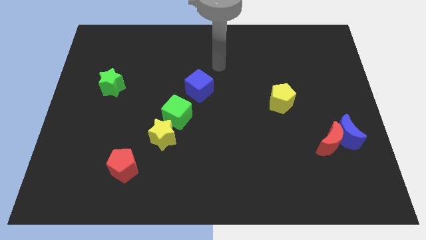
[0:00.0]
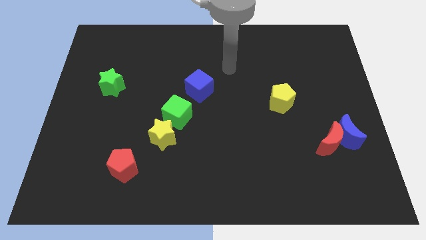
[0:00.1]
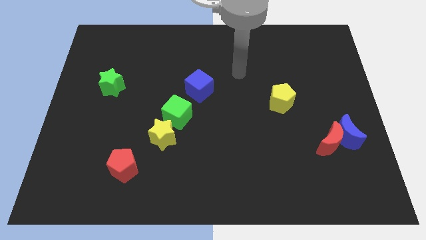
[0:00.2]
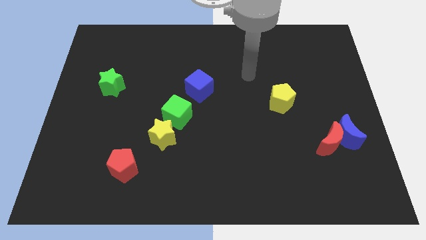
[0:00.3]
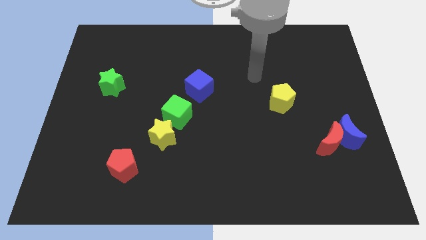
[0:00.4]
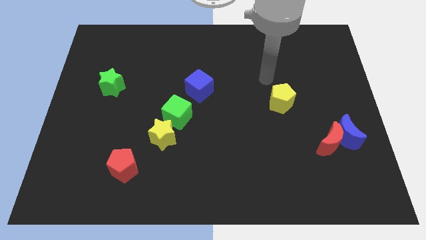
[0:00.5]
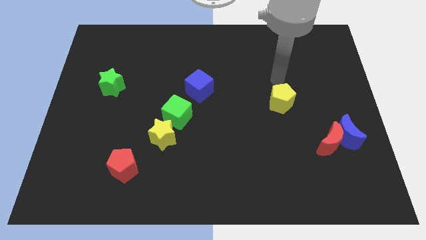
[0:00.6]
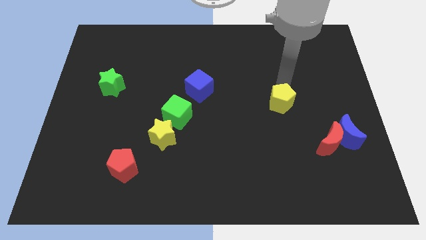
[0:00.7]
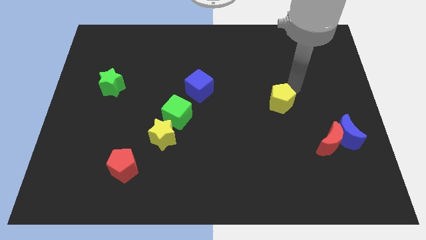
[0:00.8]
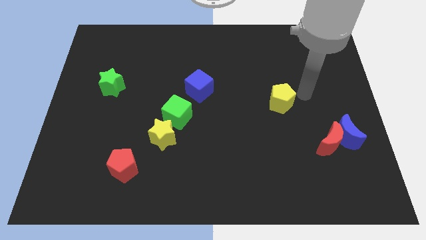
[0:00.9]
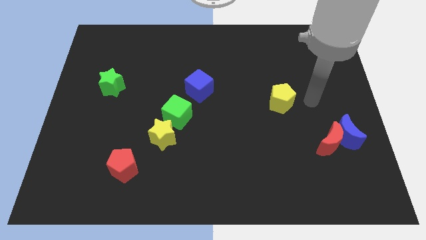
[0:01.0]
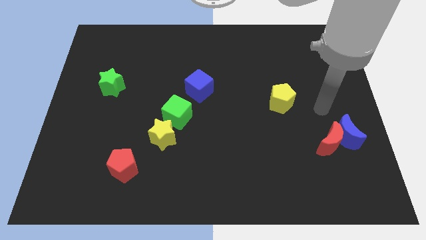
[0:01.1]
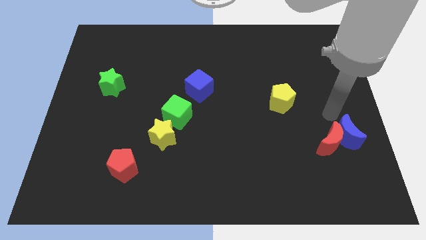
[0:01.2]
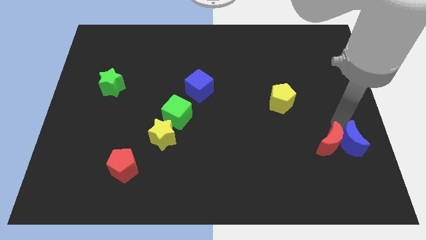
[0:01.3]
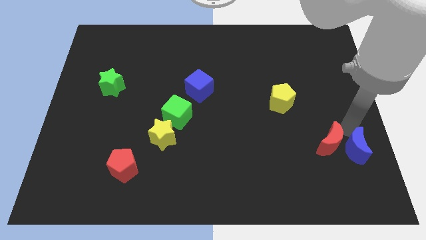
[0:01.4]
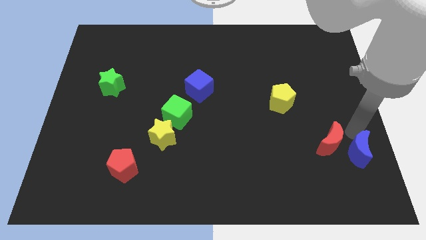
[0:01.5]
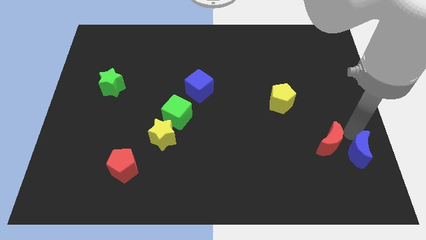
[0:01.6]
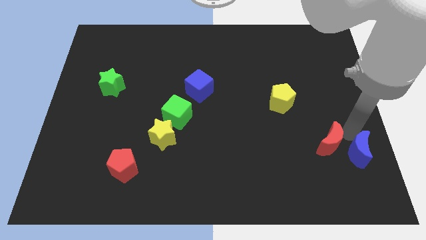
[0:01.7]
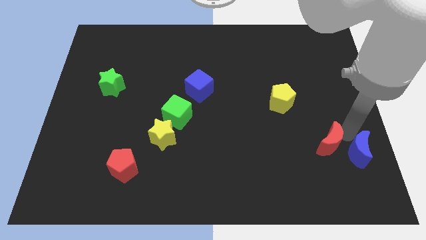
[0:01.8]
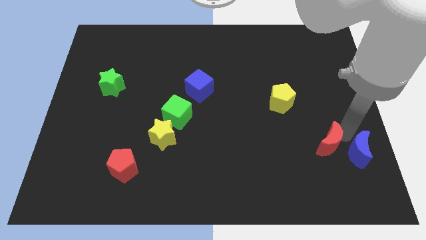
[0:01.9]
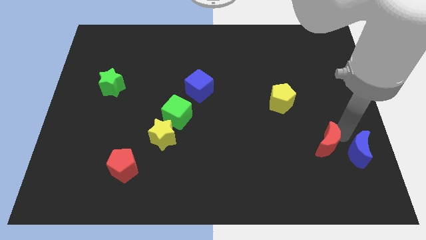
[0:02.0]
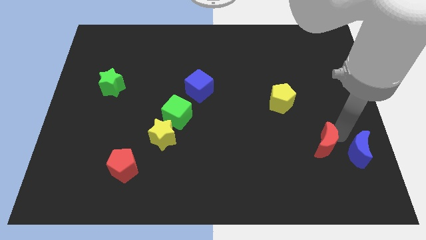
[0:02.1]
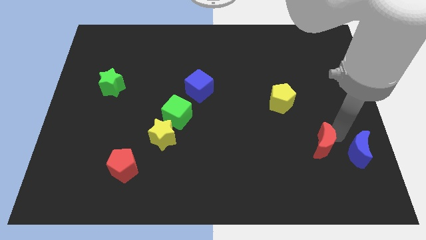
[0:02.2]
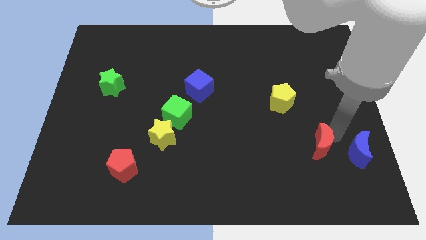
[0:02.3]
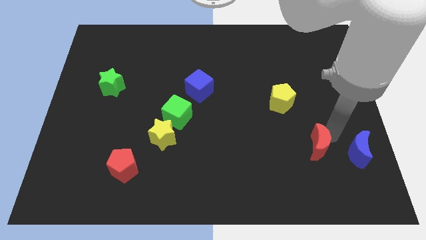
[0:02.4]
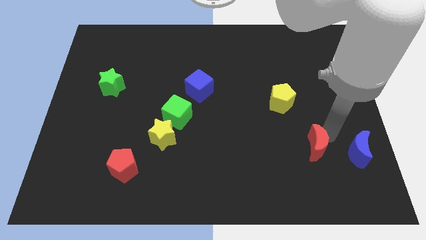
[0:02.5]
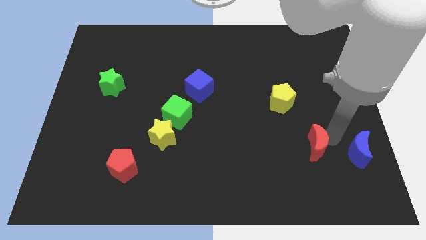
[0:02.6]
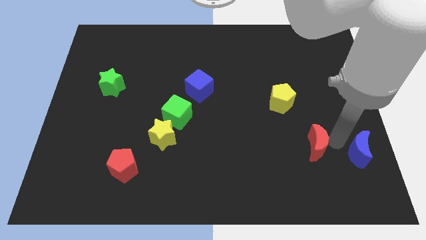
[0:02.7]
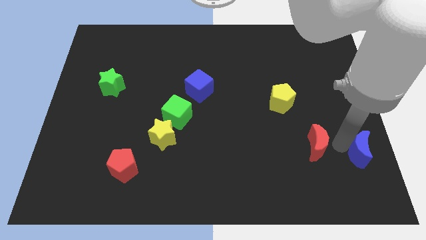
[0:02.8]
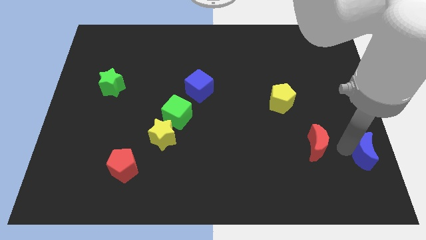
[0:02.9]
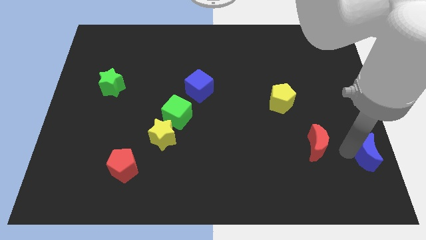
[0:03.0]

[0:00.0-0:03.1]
separate the red moon from the blue moon

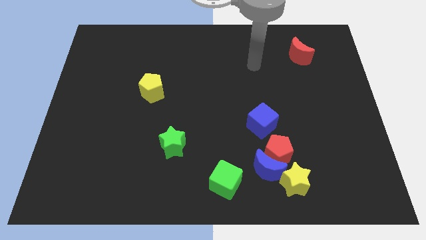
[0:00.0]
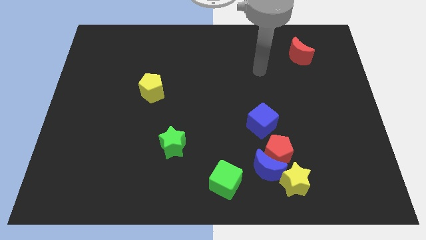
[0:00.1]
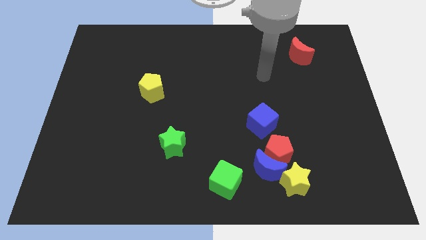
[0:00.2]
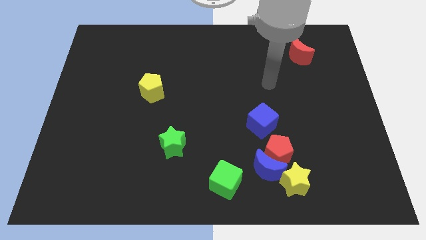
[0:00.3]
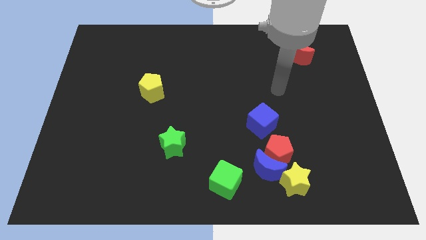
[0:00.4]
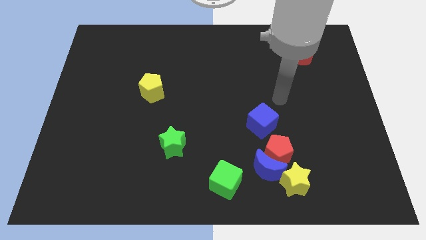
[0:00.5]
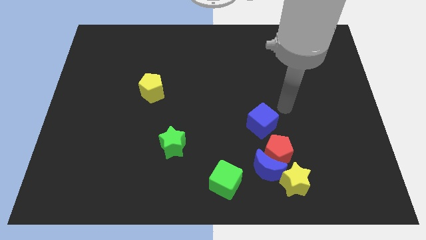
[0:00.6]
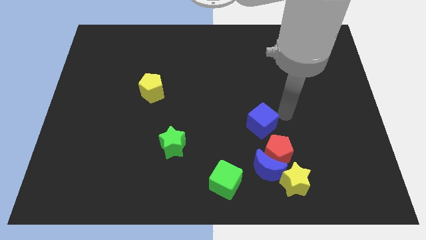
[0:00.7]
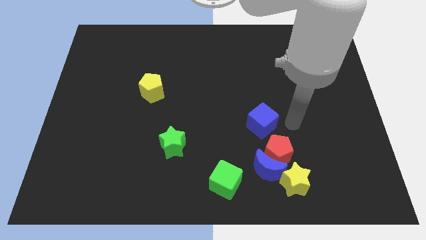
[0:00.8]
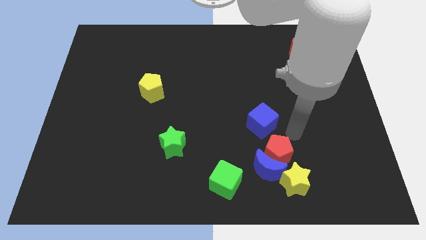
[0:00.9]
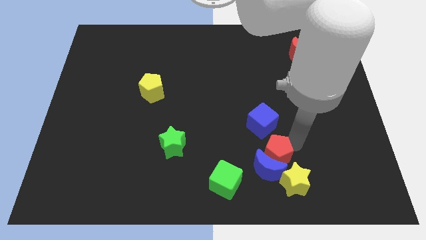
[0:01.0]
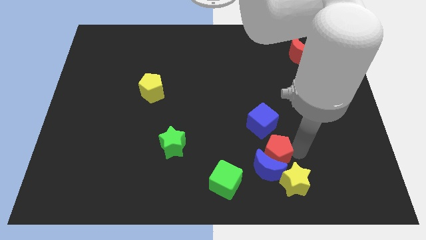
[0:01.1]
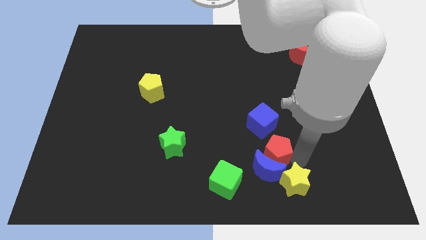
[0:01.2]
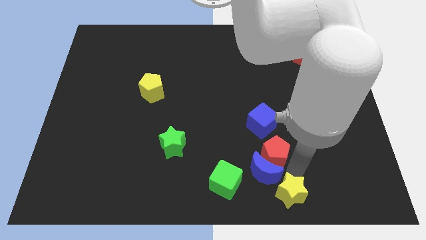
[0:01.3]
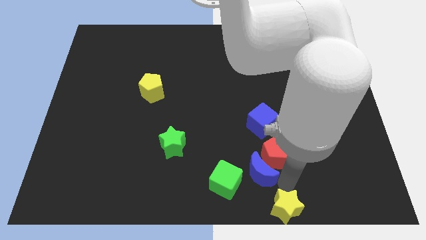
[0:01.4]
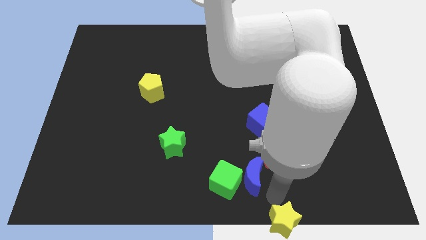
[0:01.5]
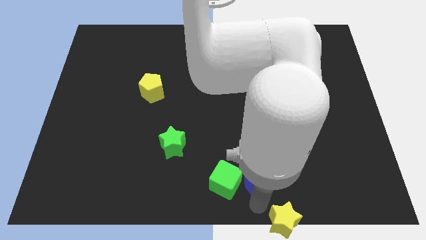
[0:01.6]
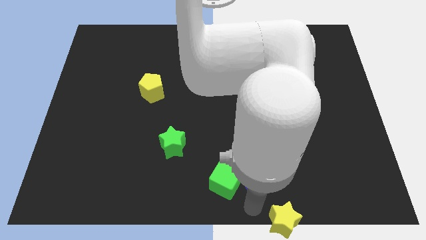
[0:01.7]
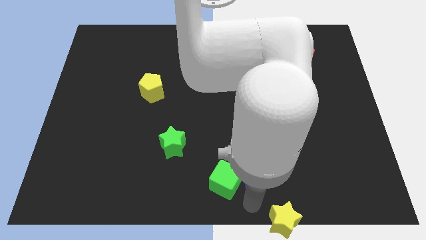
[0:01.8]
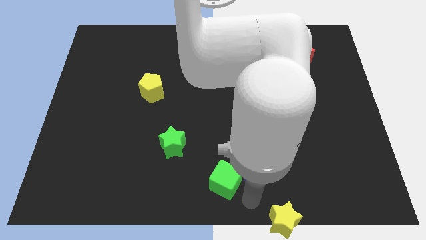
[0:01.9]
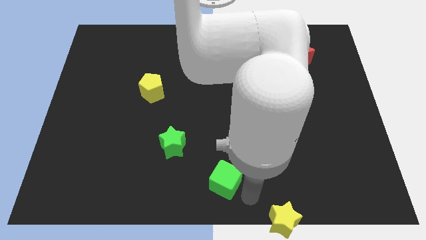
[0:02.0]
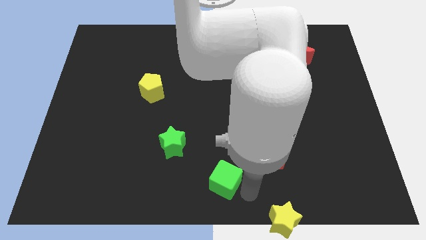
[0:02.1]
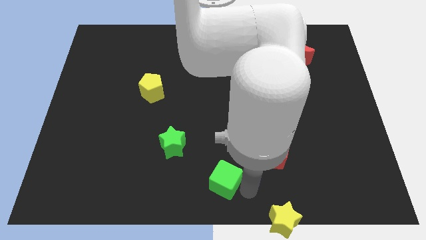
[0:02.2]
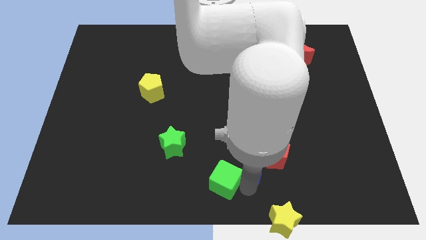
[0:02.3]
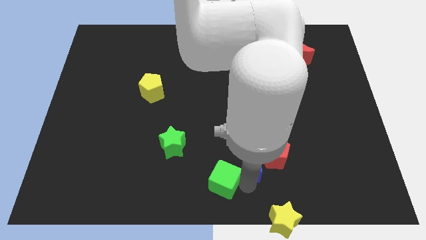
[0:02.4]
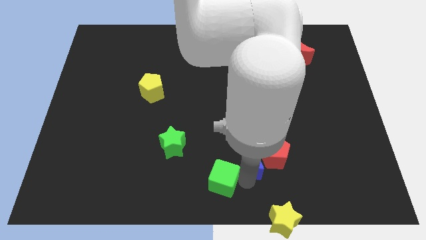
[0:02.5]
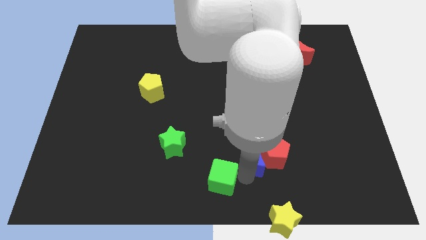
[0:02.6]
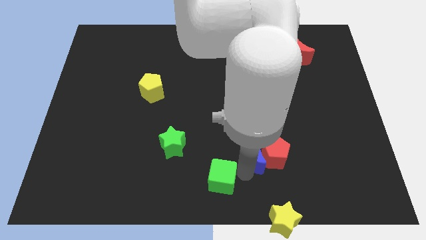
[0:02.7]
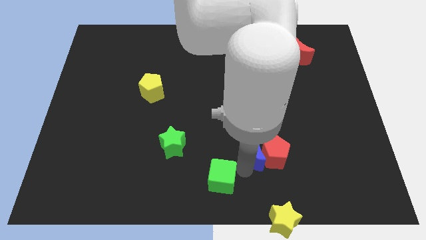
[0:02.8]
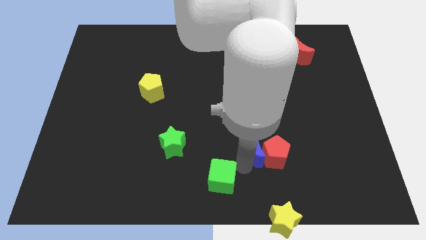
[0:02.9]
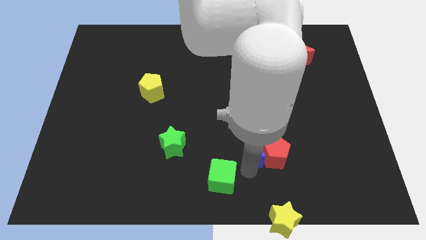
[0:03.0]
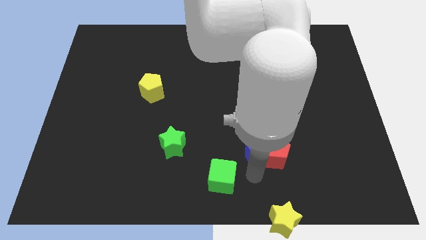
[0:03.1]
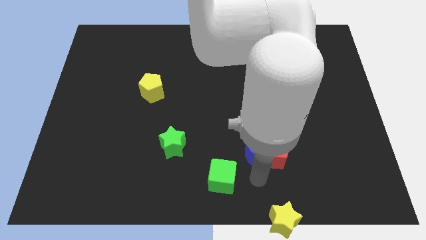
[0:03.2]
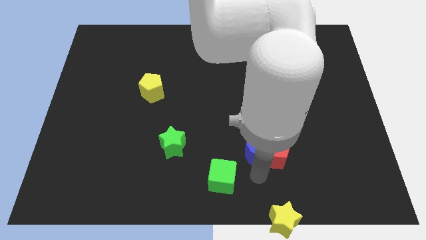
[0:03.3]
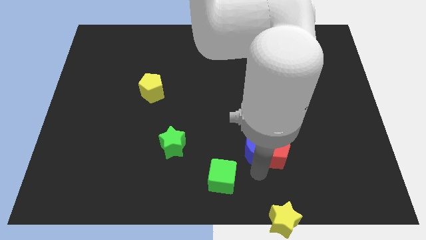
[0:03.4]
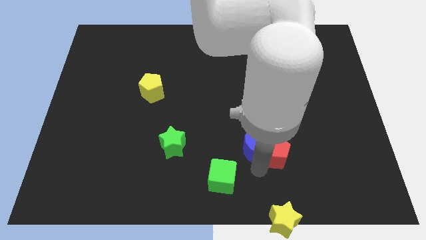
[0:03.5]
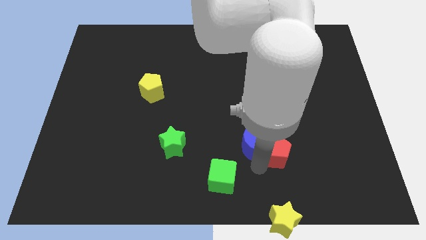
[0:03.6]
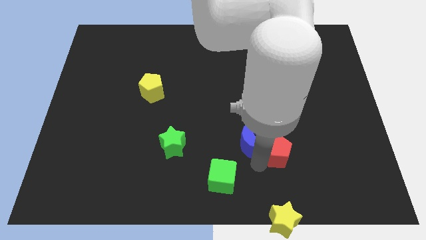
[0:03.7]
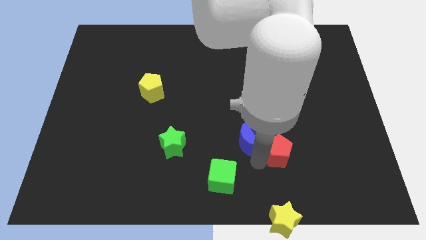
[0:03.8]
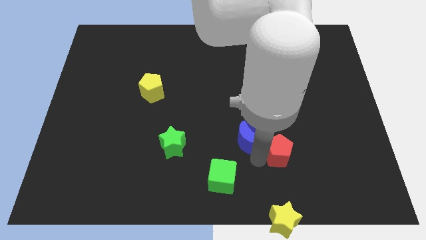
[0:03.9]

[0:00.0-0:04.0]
separate the blue moon from the clump

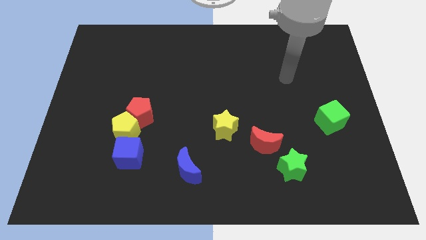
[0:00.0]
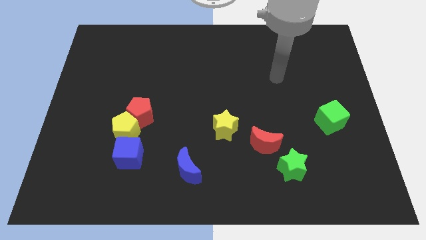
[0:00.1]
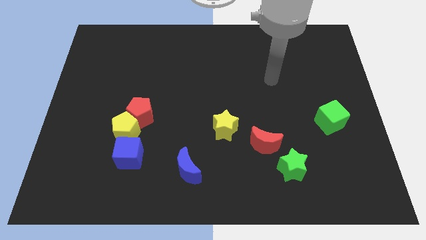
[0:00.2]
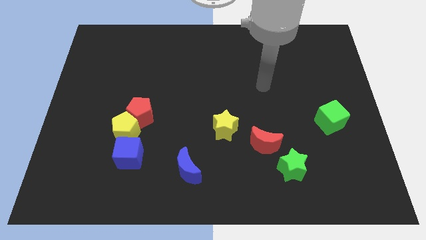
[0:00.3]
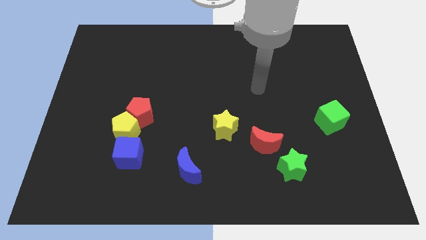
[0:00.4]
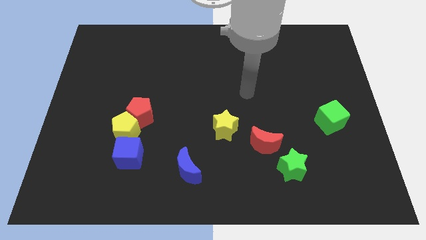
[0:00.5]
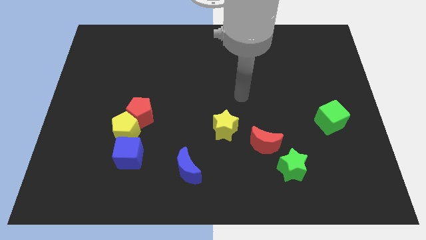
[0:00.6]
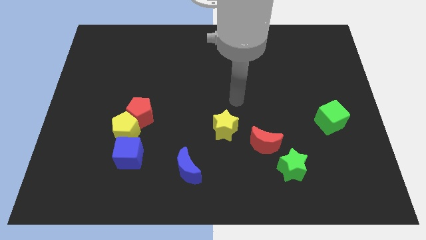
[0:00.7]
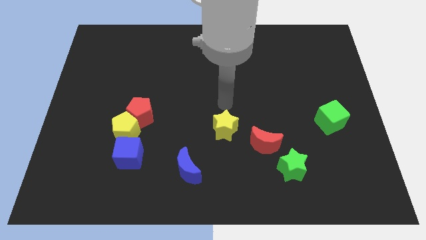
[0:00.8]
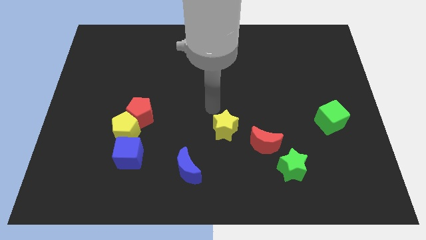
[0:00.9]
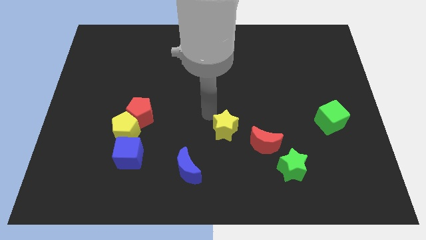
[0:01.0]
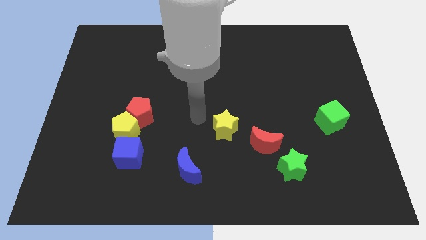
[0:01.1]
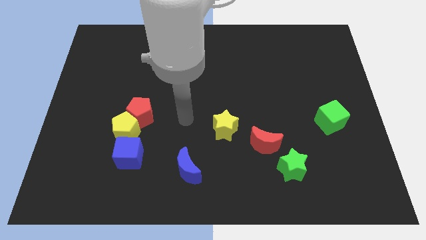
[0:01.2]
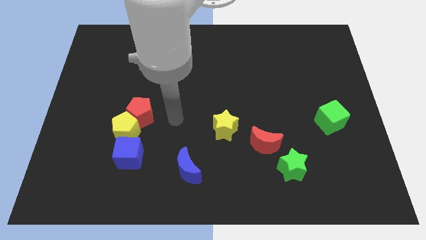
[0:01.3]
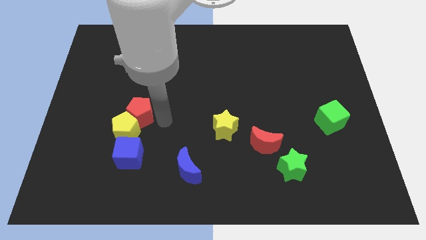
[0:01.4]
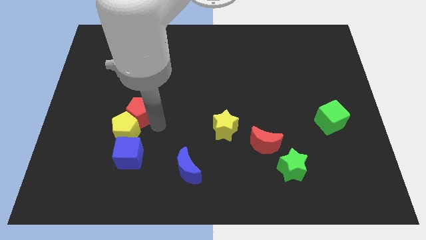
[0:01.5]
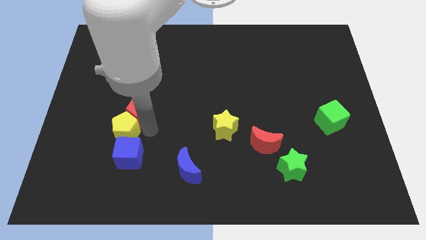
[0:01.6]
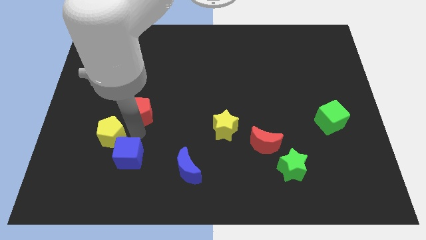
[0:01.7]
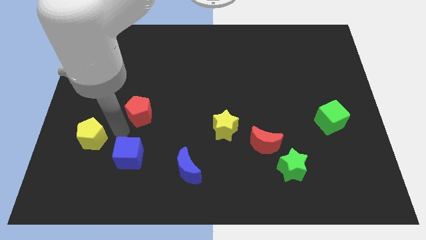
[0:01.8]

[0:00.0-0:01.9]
pull the red pentagon apart from the yellow pentagon

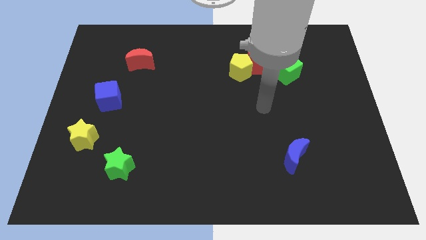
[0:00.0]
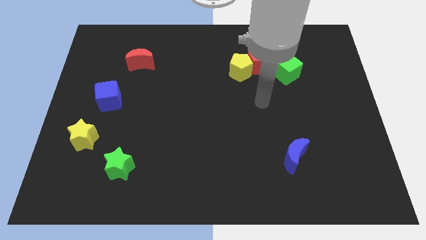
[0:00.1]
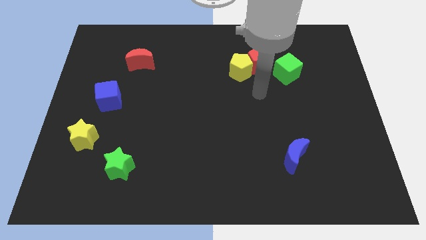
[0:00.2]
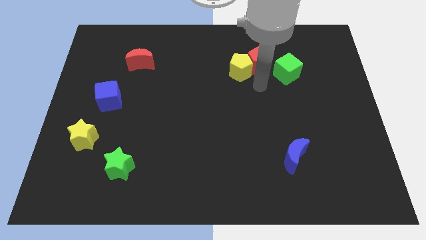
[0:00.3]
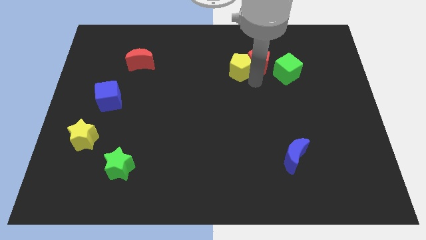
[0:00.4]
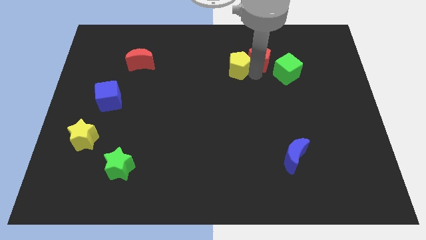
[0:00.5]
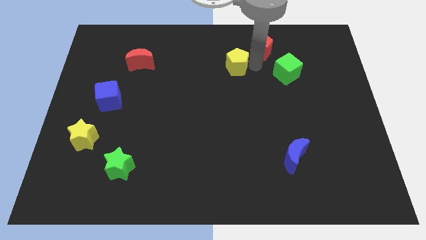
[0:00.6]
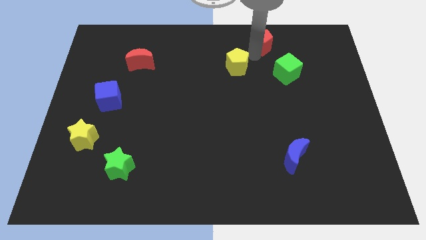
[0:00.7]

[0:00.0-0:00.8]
pull the yellow pentagon apart from the red pentagon
